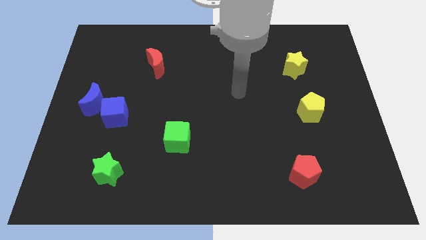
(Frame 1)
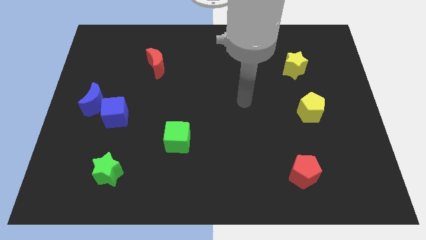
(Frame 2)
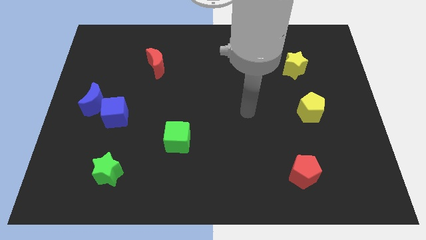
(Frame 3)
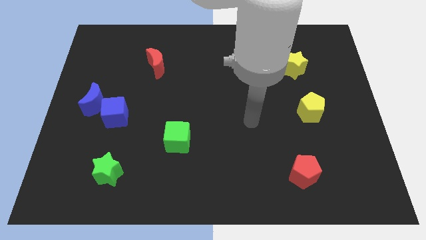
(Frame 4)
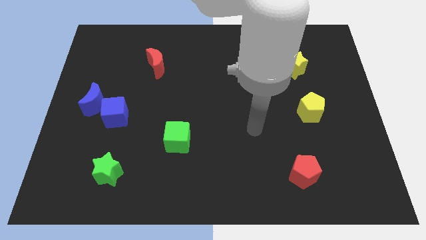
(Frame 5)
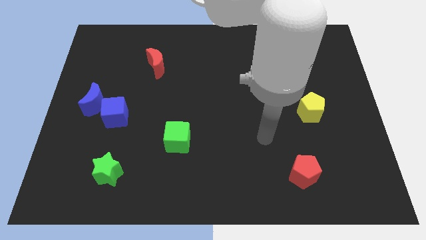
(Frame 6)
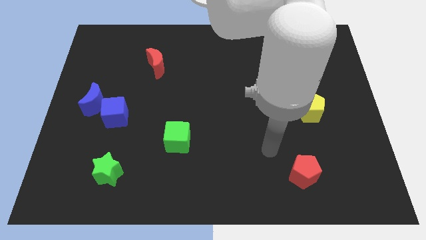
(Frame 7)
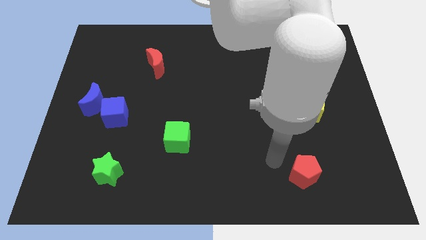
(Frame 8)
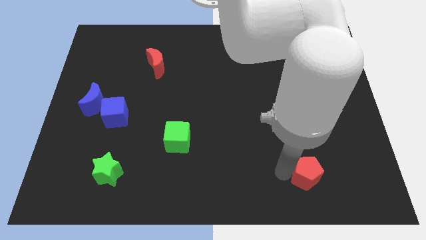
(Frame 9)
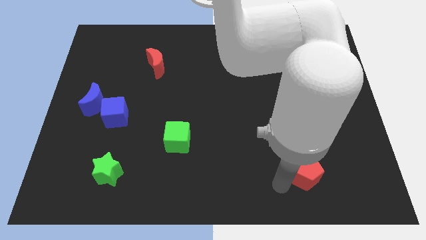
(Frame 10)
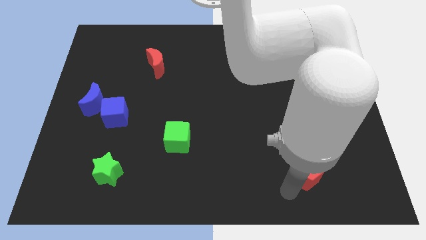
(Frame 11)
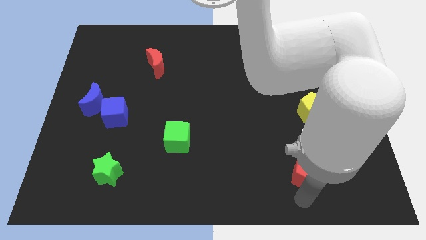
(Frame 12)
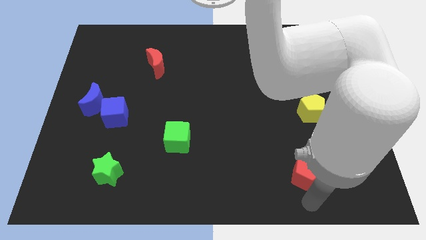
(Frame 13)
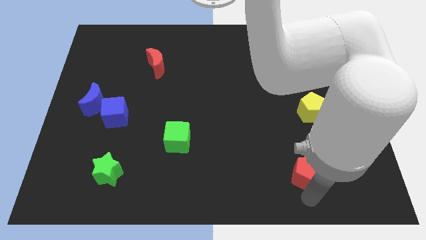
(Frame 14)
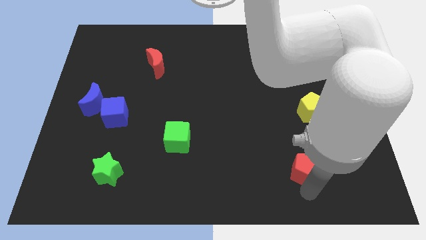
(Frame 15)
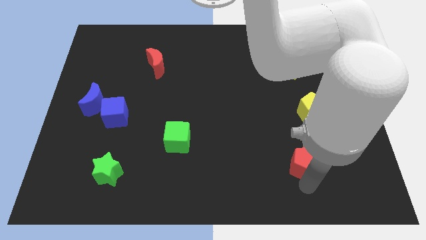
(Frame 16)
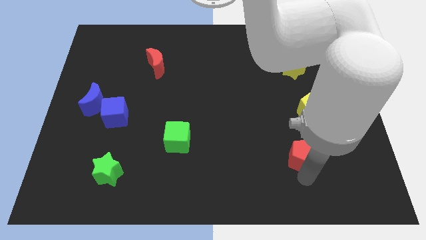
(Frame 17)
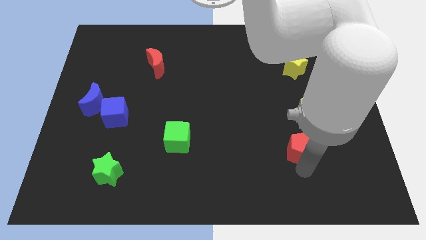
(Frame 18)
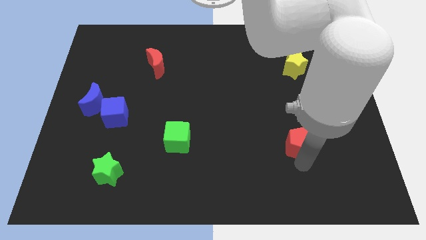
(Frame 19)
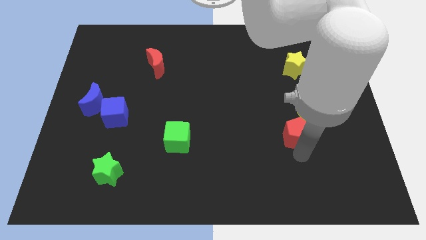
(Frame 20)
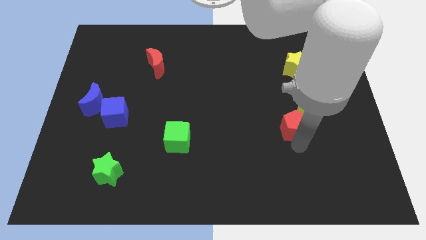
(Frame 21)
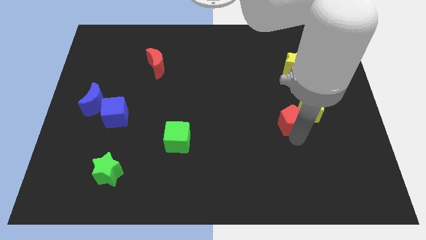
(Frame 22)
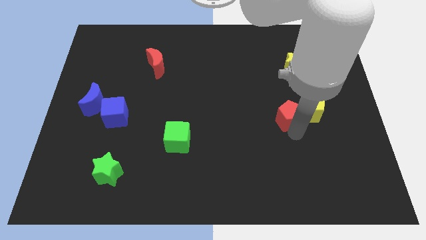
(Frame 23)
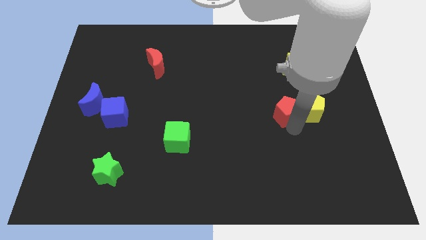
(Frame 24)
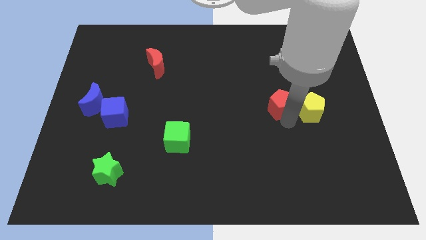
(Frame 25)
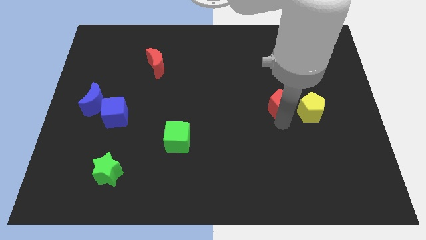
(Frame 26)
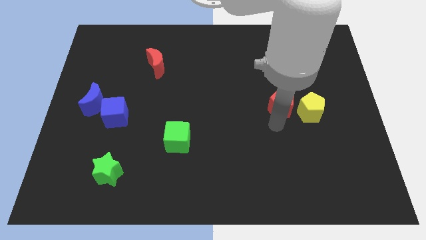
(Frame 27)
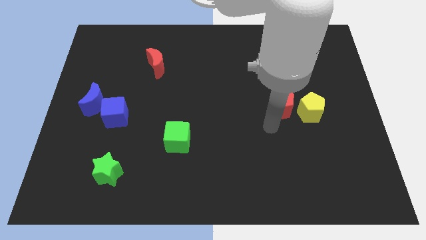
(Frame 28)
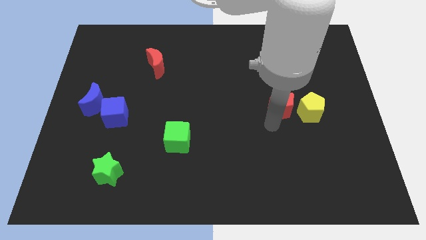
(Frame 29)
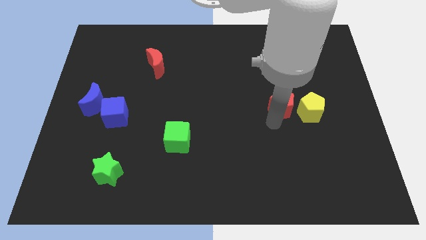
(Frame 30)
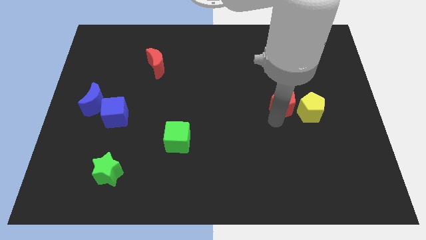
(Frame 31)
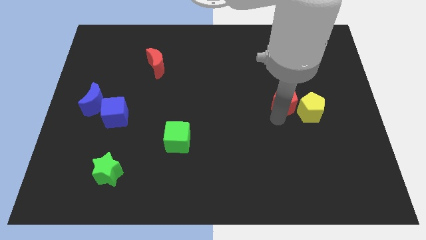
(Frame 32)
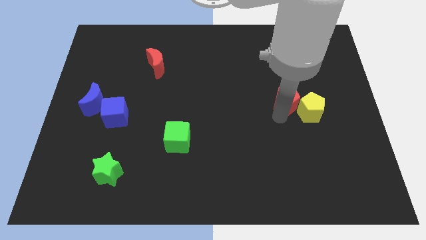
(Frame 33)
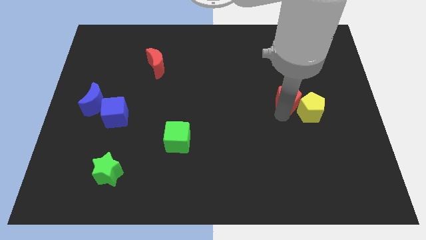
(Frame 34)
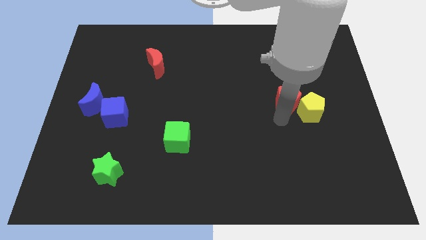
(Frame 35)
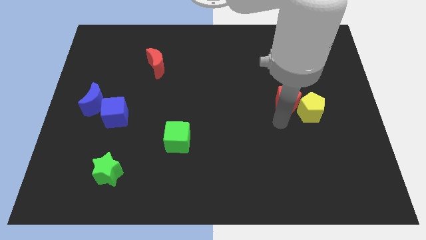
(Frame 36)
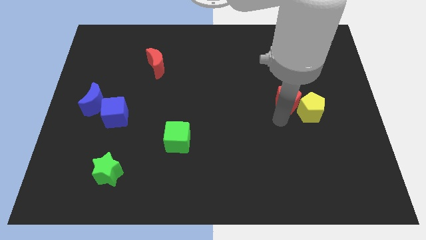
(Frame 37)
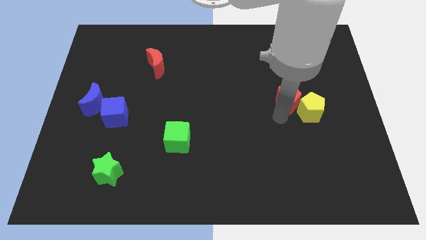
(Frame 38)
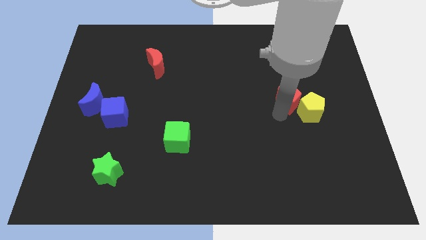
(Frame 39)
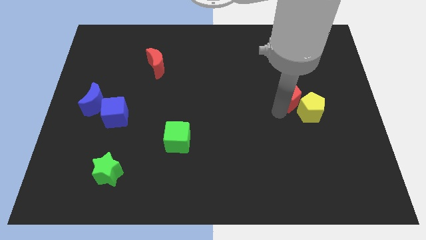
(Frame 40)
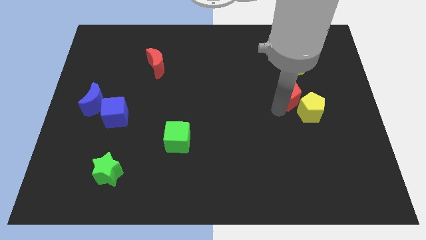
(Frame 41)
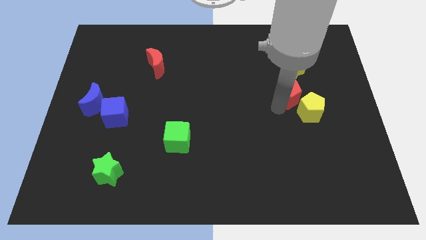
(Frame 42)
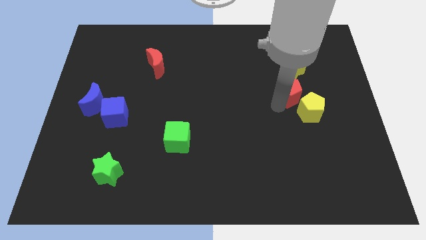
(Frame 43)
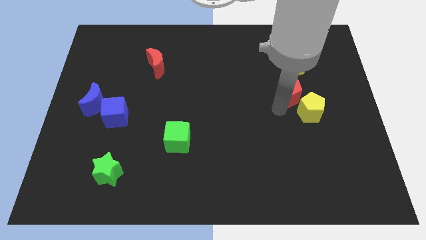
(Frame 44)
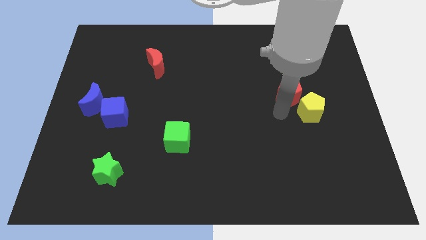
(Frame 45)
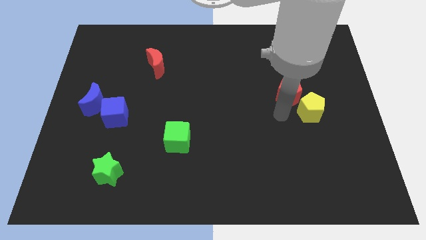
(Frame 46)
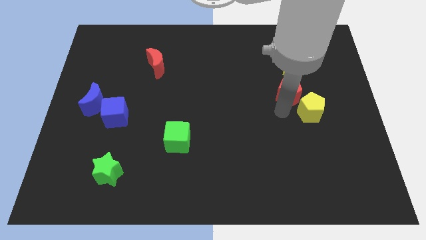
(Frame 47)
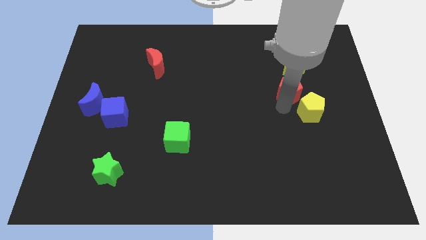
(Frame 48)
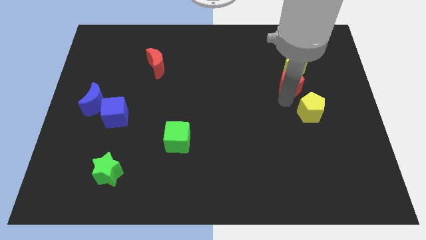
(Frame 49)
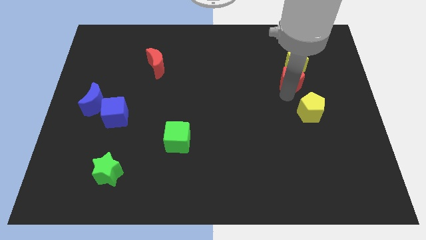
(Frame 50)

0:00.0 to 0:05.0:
move the red pentagon to the yellow star

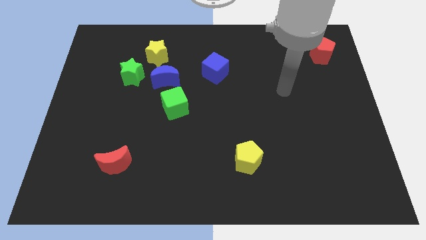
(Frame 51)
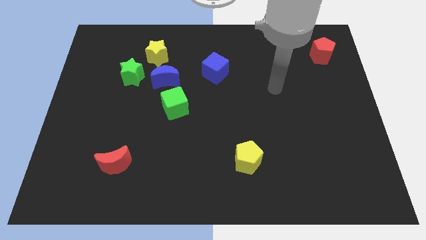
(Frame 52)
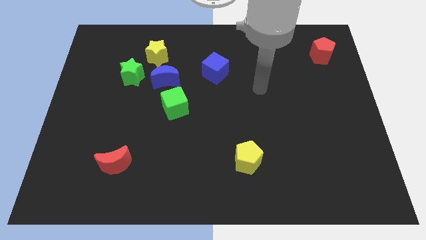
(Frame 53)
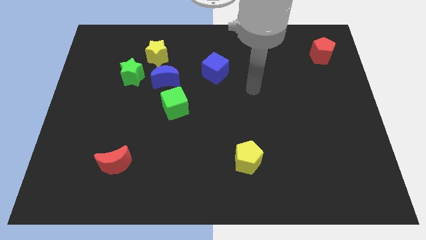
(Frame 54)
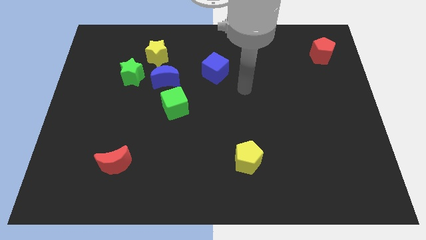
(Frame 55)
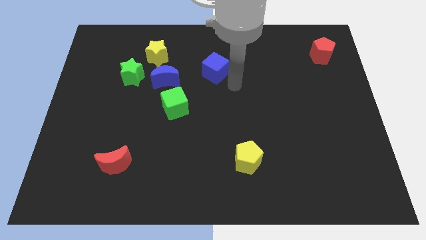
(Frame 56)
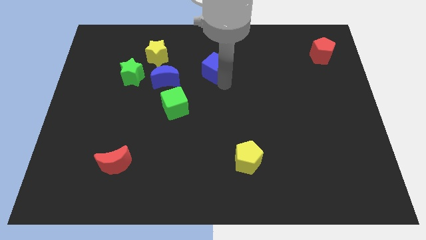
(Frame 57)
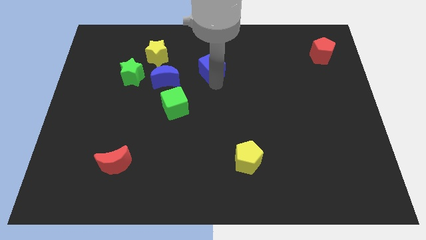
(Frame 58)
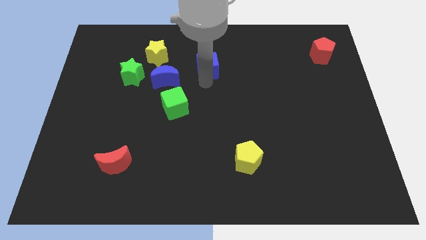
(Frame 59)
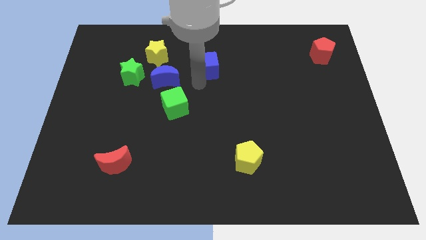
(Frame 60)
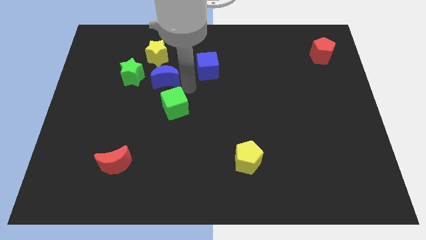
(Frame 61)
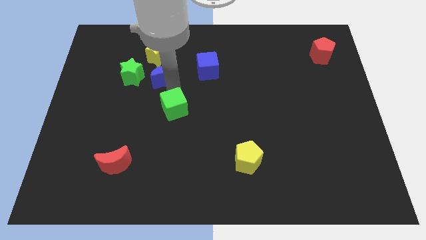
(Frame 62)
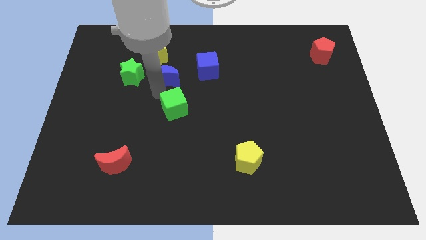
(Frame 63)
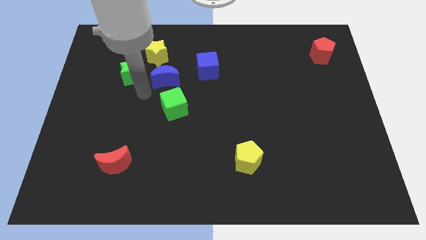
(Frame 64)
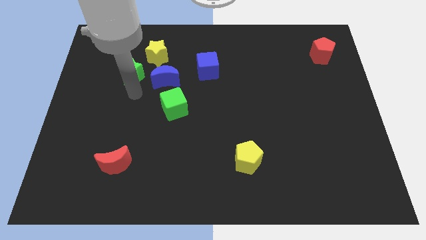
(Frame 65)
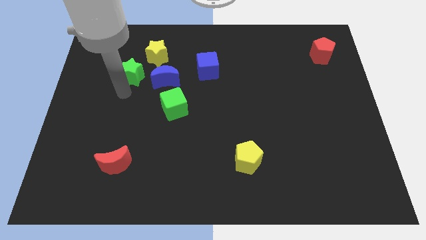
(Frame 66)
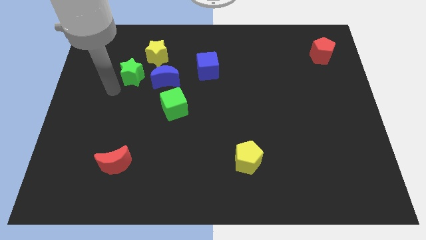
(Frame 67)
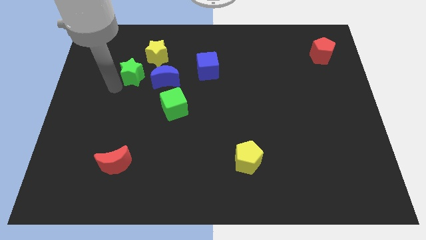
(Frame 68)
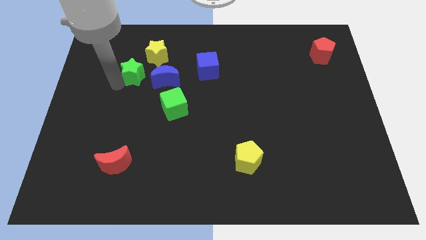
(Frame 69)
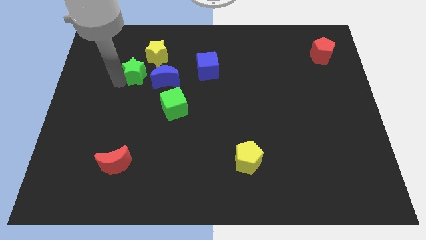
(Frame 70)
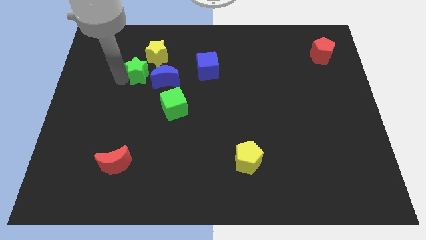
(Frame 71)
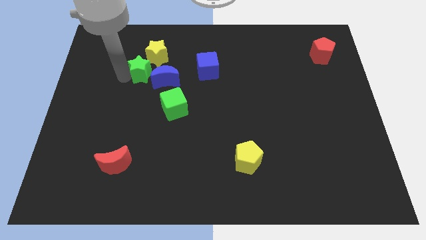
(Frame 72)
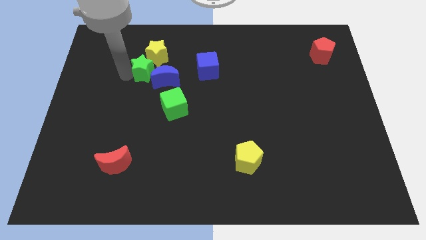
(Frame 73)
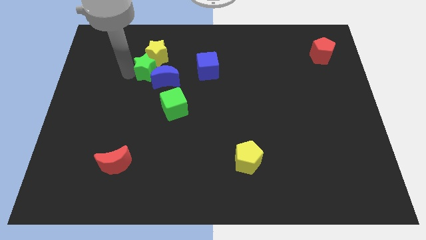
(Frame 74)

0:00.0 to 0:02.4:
put the green star close to the yellow star

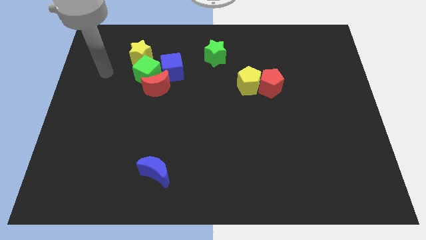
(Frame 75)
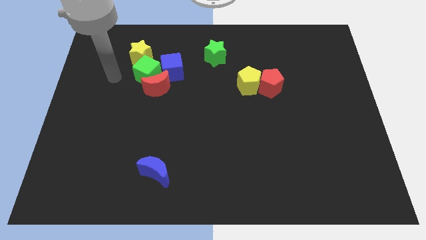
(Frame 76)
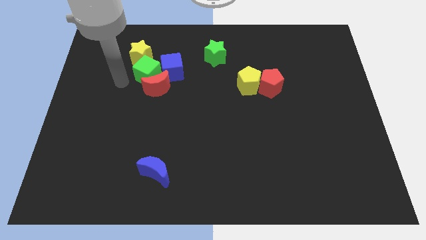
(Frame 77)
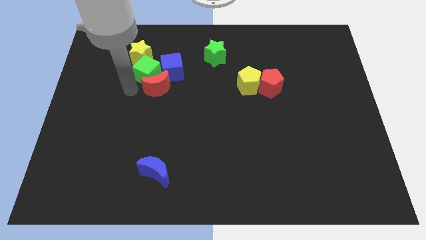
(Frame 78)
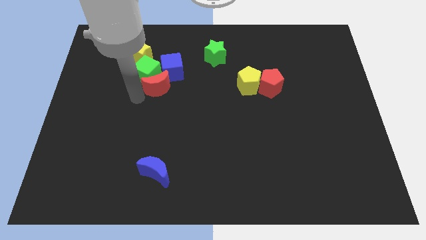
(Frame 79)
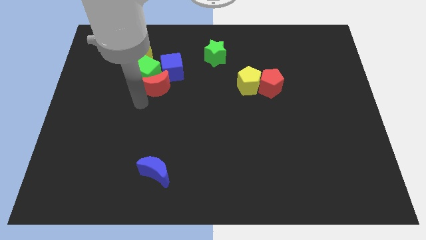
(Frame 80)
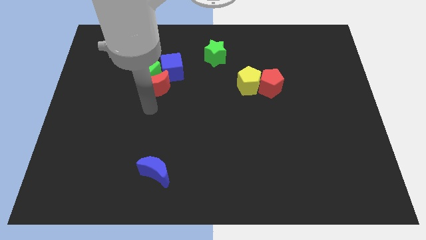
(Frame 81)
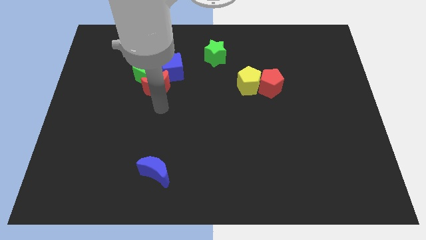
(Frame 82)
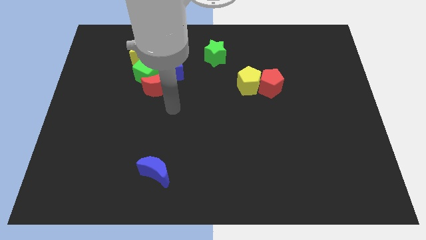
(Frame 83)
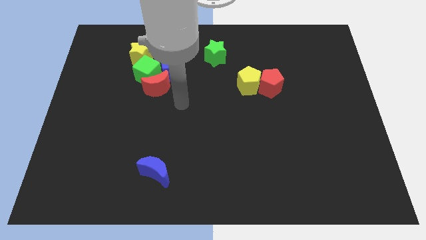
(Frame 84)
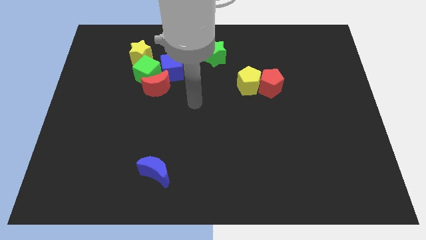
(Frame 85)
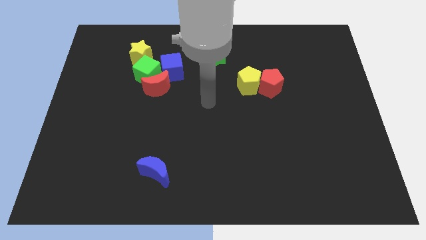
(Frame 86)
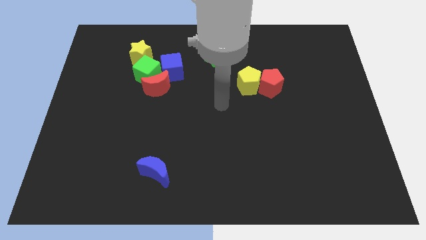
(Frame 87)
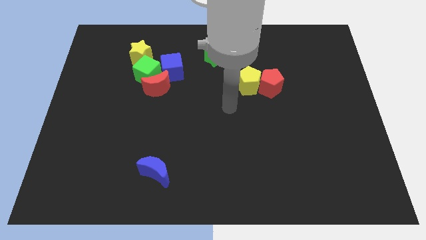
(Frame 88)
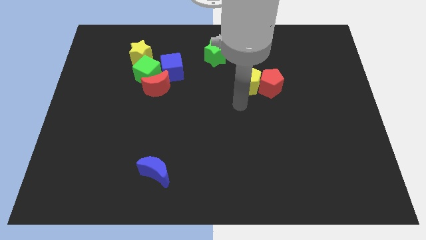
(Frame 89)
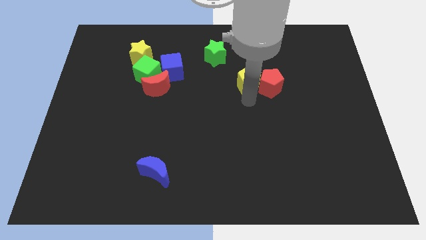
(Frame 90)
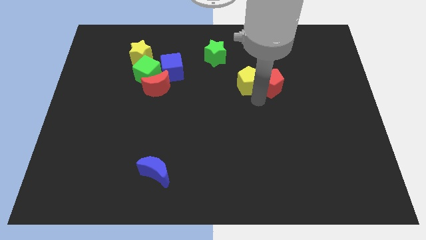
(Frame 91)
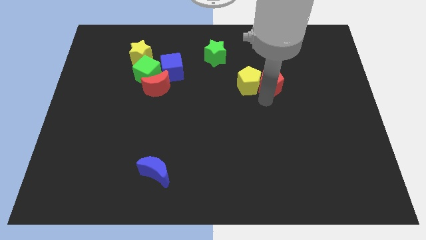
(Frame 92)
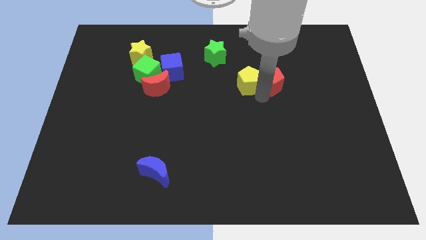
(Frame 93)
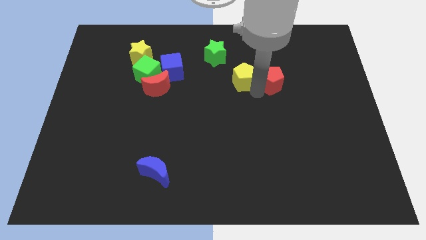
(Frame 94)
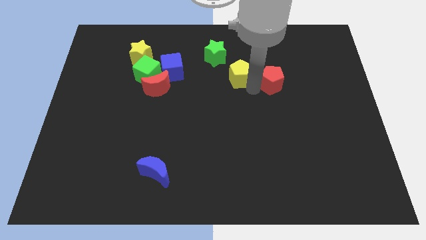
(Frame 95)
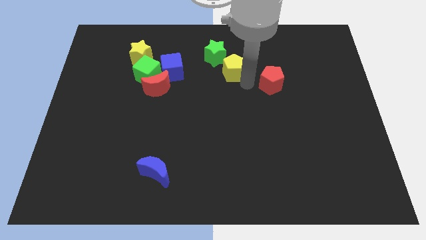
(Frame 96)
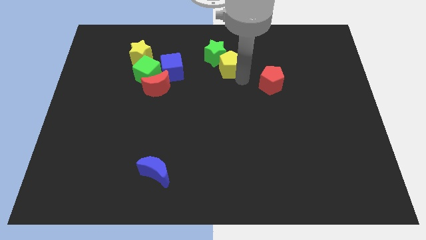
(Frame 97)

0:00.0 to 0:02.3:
slide the yellow pentagon next to the green star
